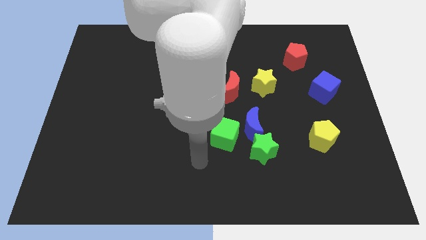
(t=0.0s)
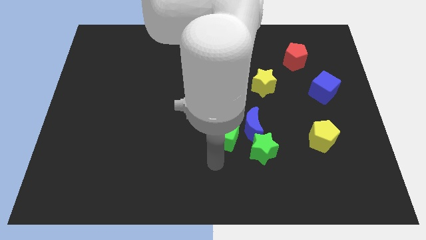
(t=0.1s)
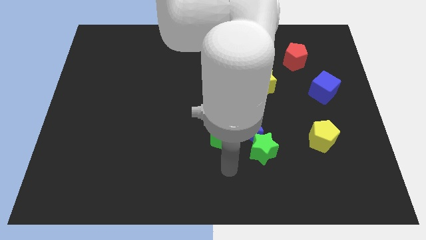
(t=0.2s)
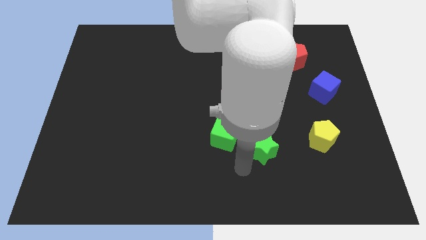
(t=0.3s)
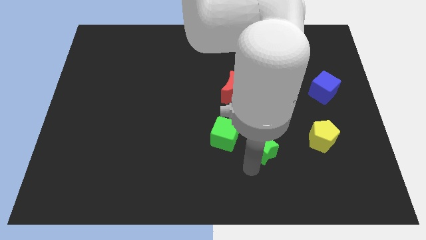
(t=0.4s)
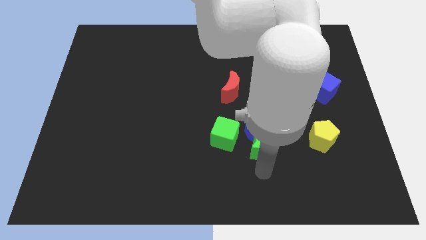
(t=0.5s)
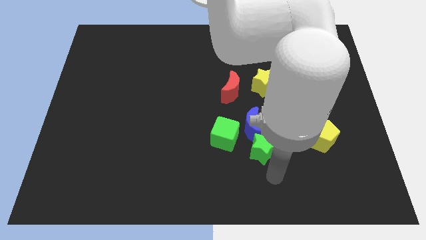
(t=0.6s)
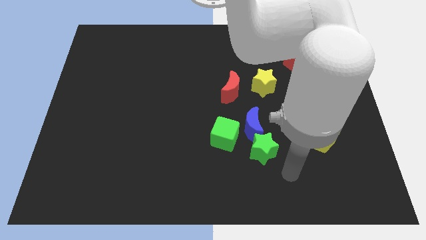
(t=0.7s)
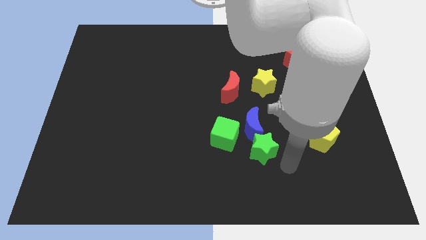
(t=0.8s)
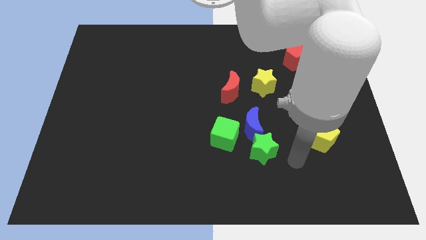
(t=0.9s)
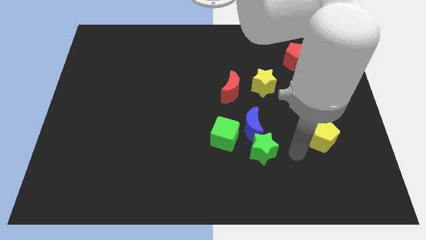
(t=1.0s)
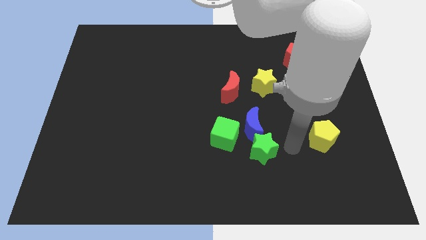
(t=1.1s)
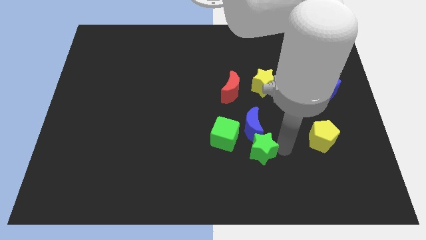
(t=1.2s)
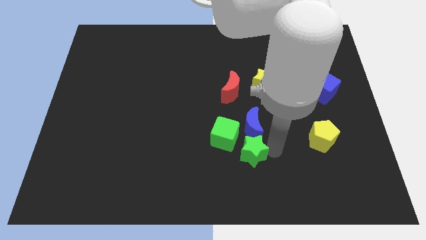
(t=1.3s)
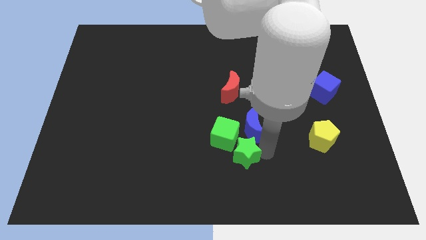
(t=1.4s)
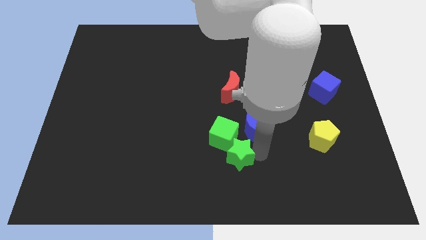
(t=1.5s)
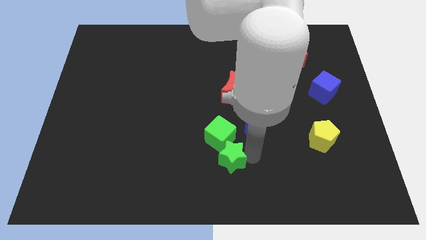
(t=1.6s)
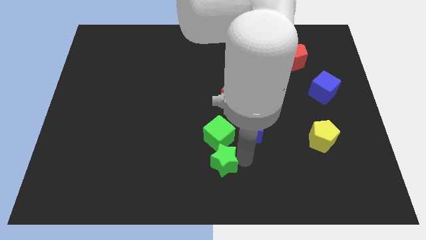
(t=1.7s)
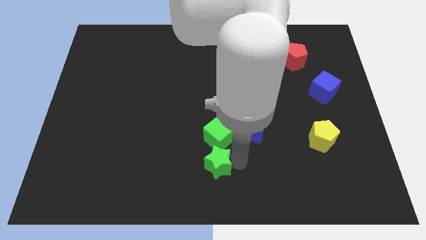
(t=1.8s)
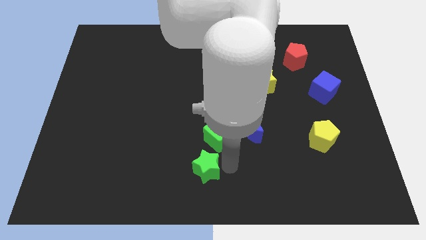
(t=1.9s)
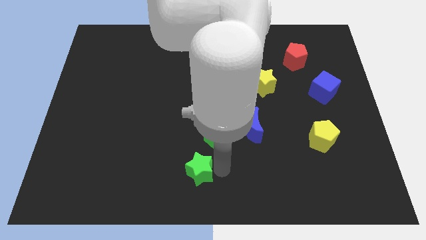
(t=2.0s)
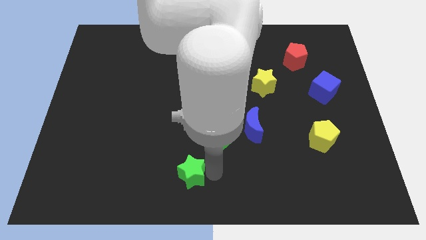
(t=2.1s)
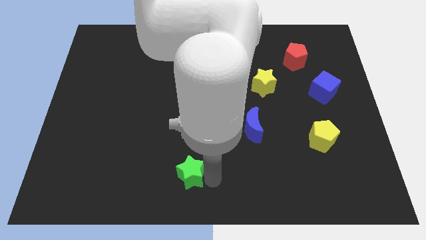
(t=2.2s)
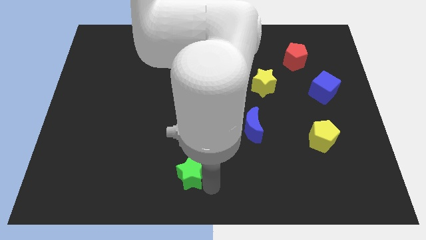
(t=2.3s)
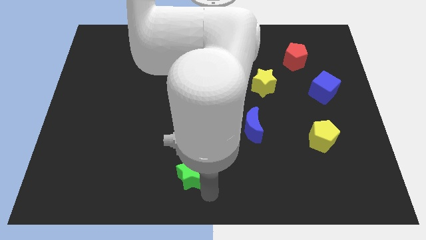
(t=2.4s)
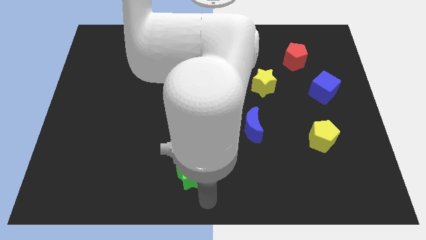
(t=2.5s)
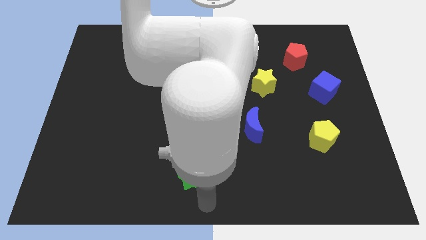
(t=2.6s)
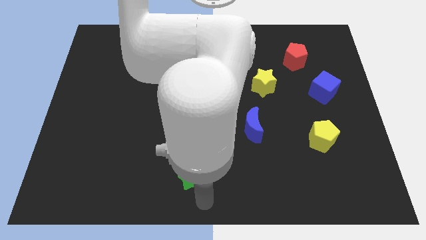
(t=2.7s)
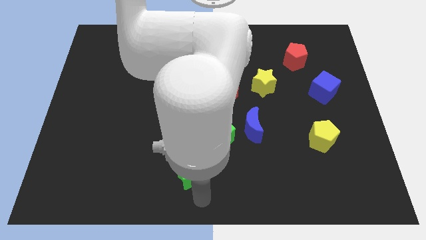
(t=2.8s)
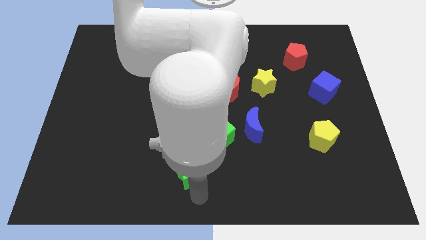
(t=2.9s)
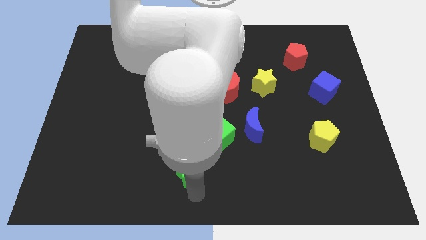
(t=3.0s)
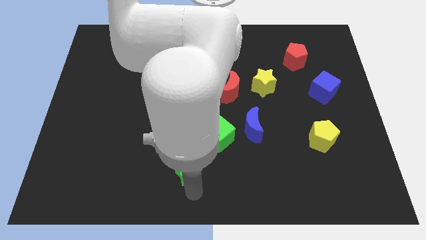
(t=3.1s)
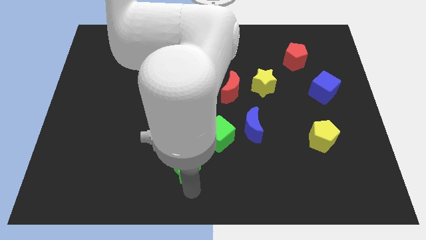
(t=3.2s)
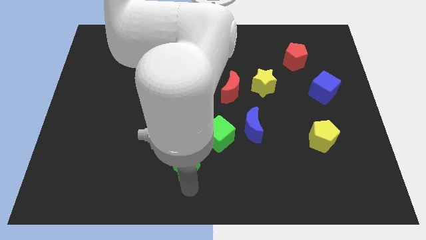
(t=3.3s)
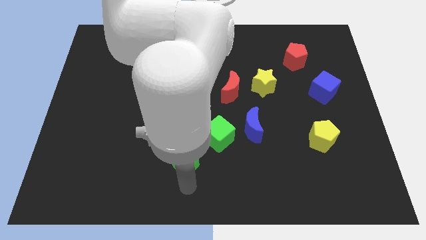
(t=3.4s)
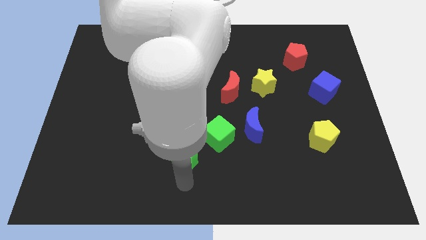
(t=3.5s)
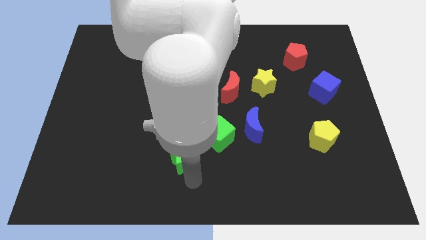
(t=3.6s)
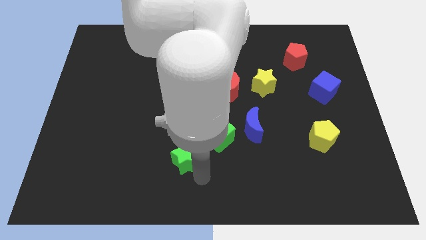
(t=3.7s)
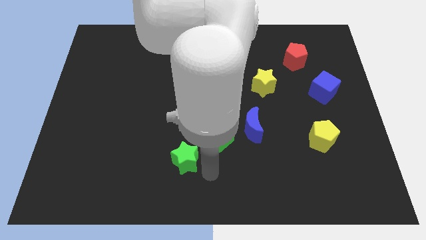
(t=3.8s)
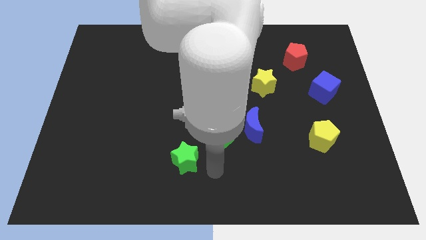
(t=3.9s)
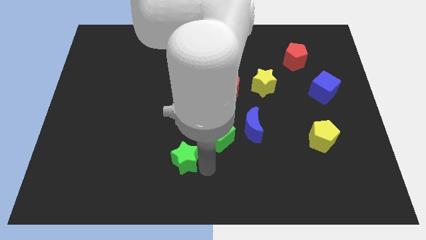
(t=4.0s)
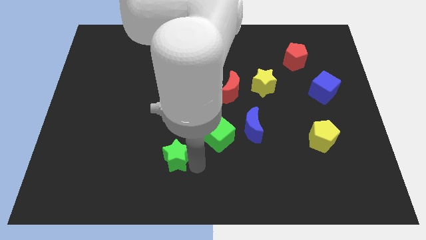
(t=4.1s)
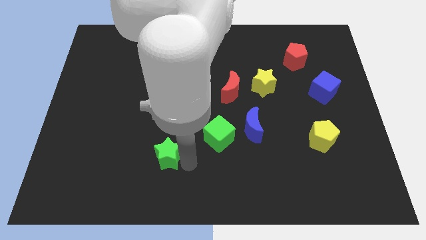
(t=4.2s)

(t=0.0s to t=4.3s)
move the green star to the left

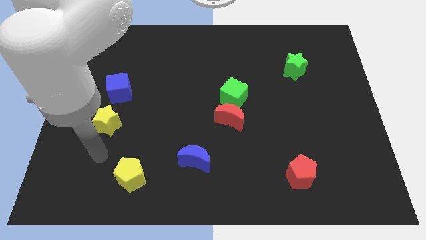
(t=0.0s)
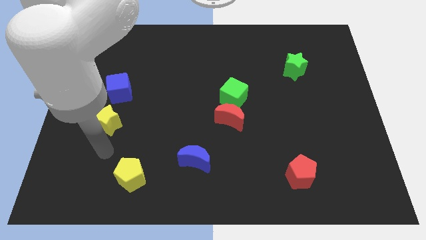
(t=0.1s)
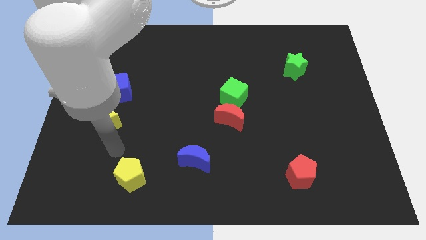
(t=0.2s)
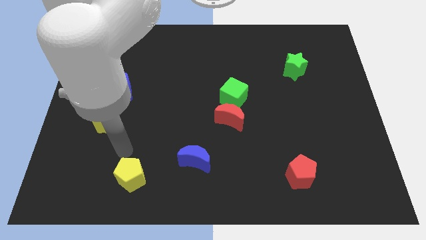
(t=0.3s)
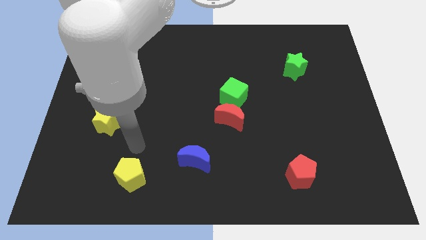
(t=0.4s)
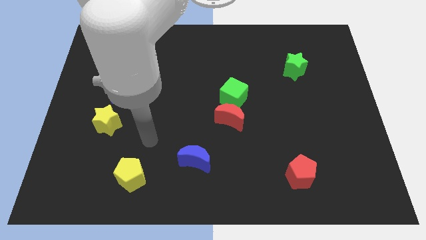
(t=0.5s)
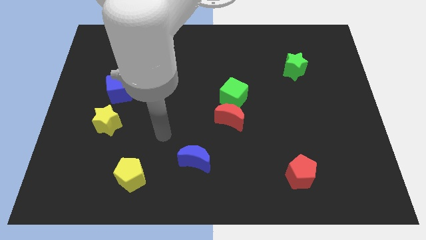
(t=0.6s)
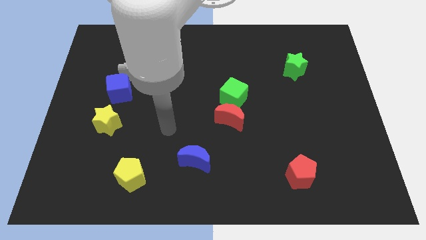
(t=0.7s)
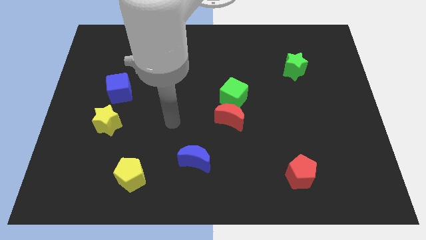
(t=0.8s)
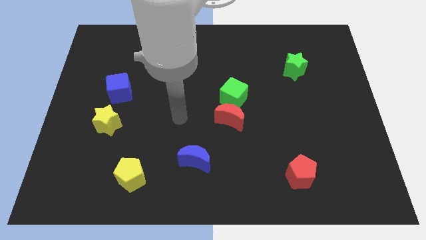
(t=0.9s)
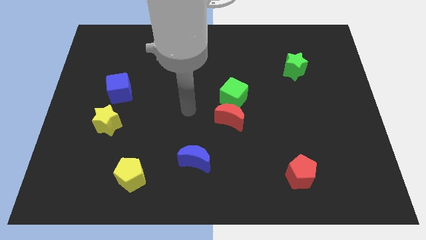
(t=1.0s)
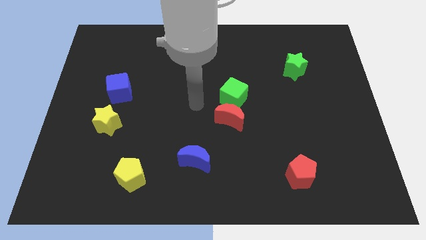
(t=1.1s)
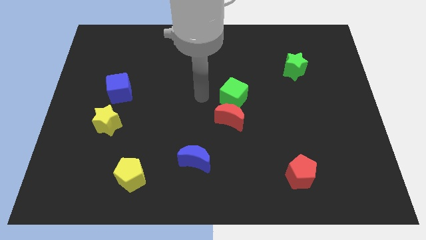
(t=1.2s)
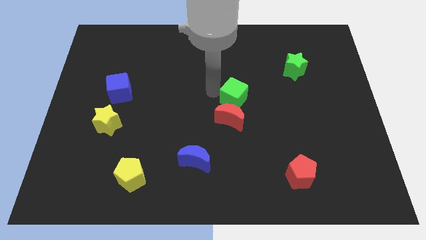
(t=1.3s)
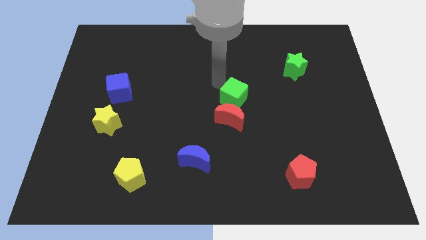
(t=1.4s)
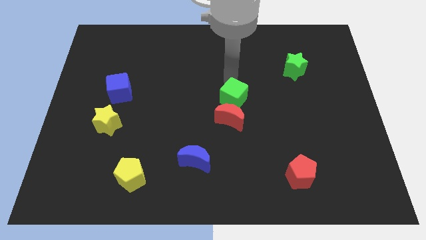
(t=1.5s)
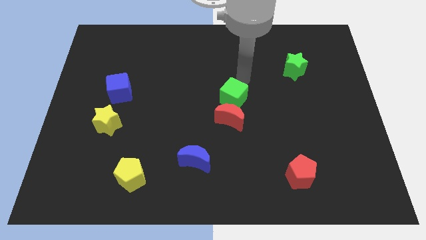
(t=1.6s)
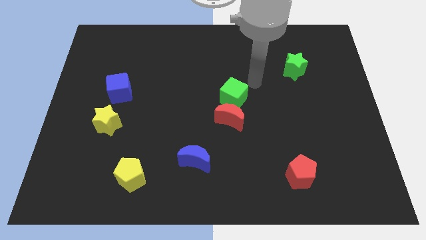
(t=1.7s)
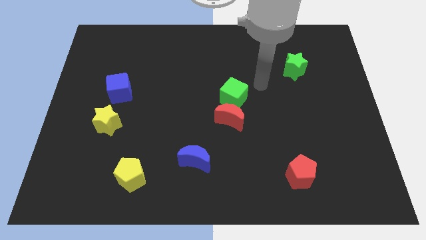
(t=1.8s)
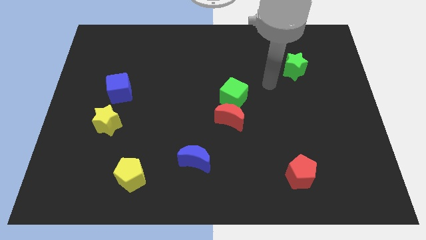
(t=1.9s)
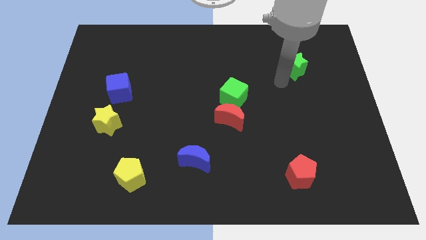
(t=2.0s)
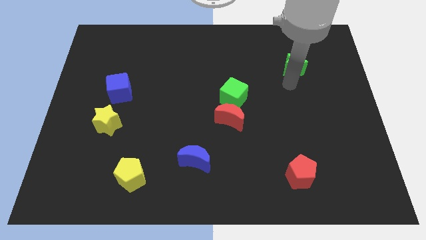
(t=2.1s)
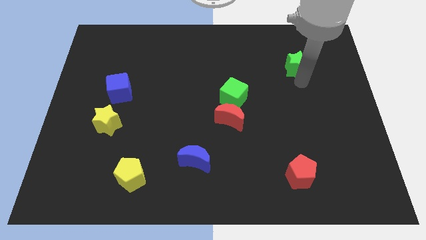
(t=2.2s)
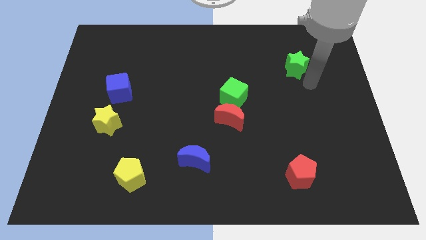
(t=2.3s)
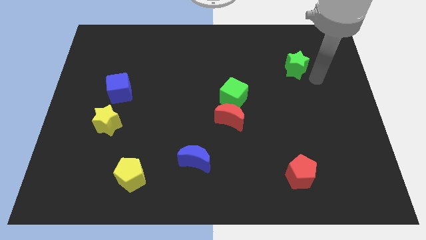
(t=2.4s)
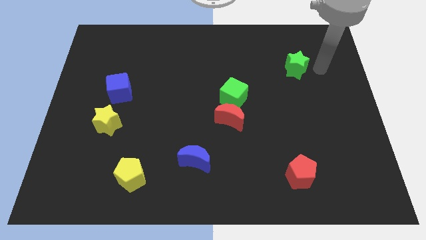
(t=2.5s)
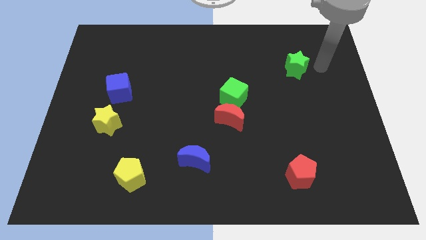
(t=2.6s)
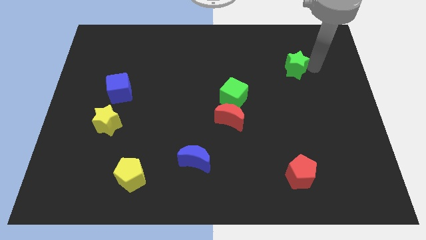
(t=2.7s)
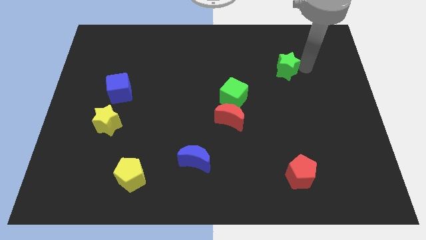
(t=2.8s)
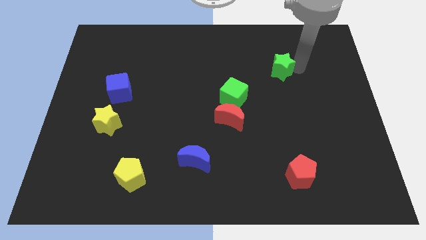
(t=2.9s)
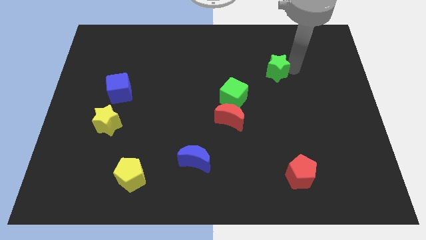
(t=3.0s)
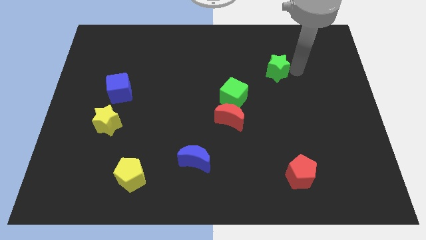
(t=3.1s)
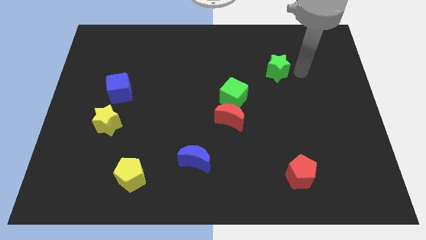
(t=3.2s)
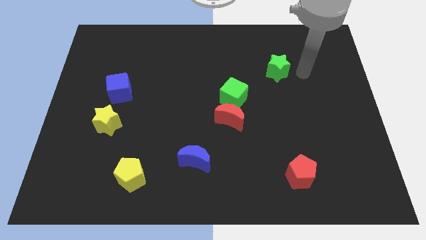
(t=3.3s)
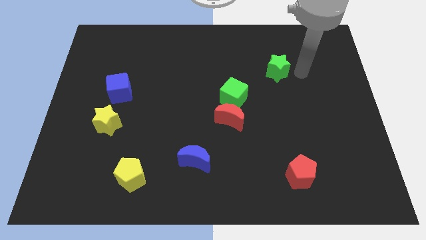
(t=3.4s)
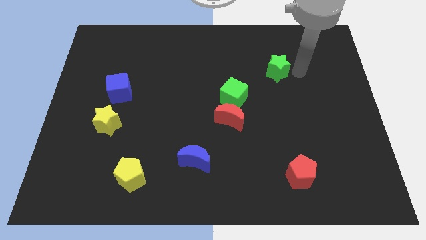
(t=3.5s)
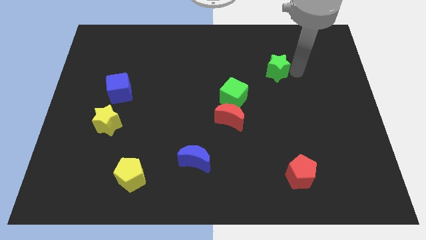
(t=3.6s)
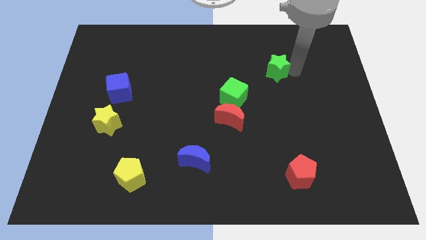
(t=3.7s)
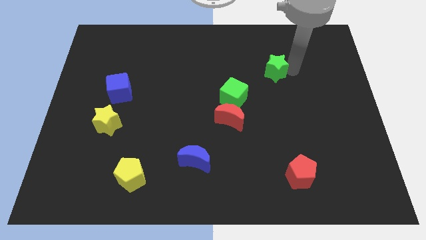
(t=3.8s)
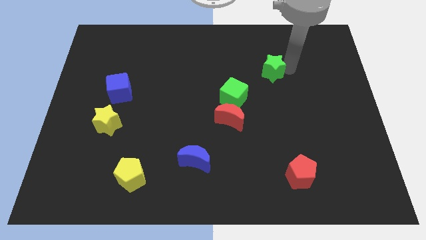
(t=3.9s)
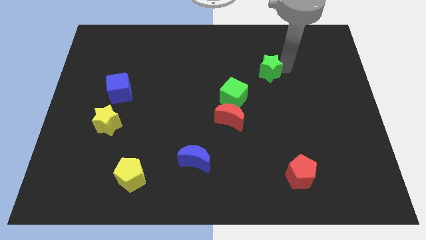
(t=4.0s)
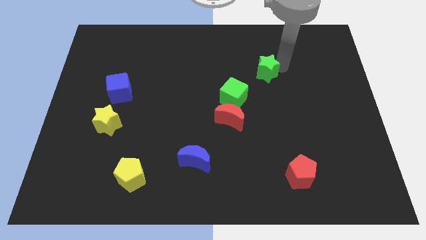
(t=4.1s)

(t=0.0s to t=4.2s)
push the green star left a bit
